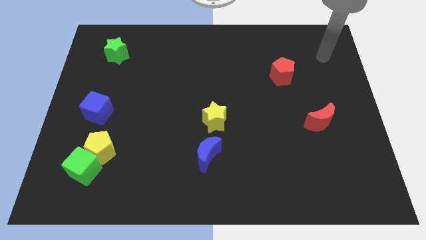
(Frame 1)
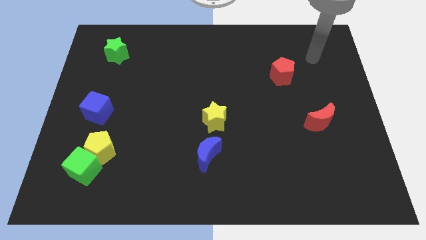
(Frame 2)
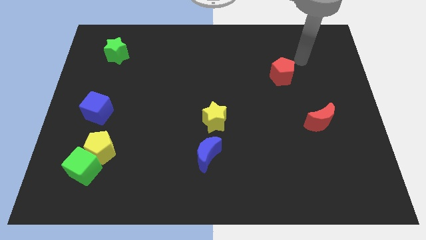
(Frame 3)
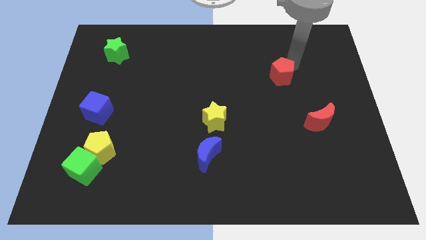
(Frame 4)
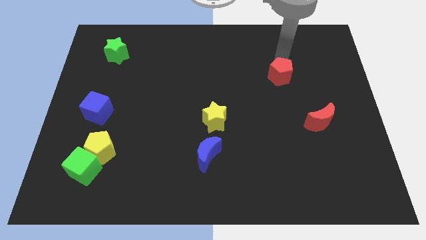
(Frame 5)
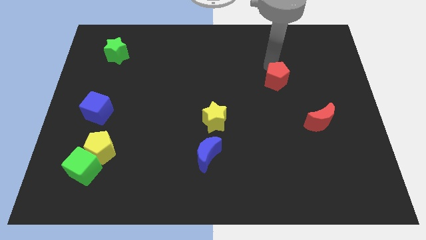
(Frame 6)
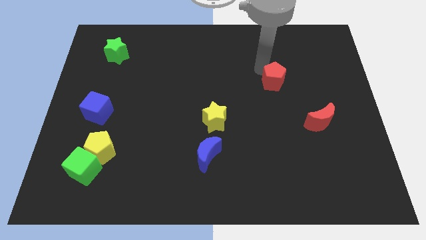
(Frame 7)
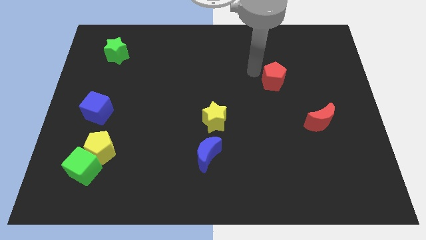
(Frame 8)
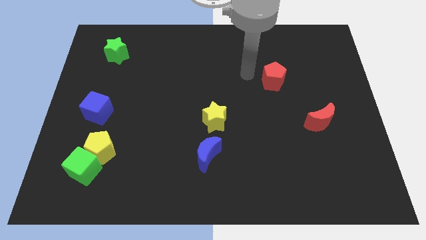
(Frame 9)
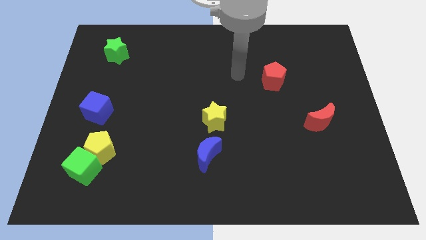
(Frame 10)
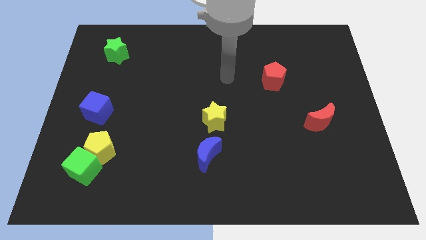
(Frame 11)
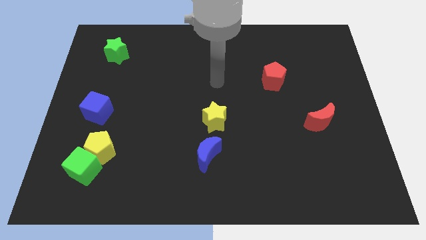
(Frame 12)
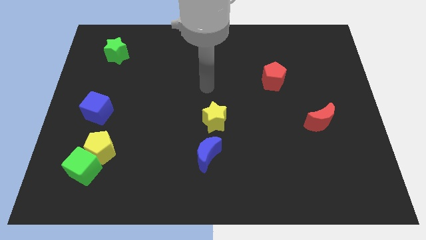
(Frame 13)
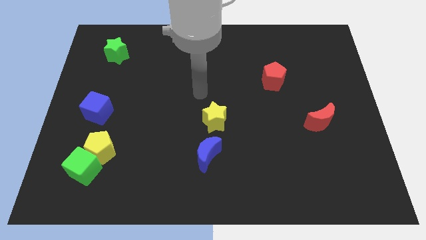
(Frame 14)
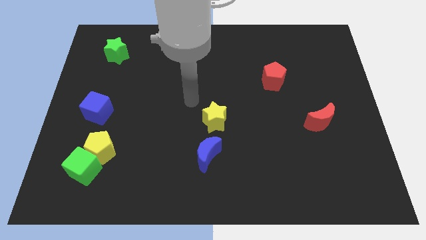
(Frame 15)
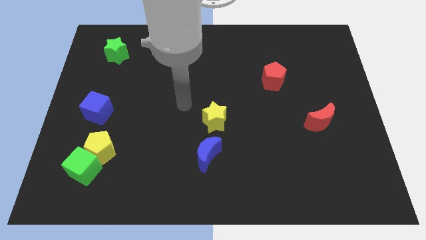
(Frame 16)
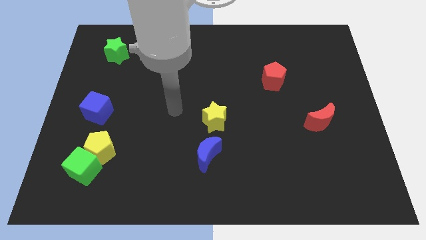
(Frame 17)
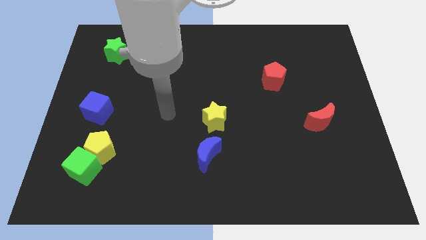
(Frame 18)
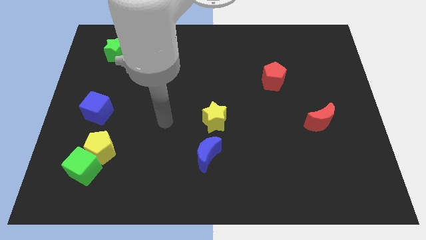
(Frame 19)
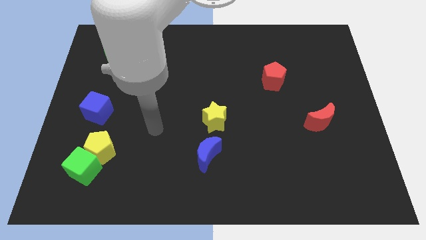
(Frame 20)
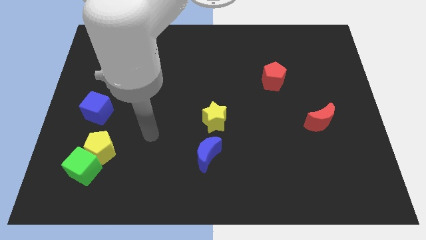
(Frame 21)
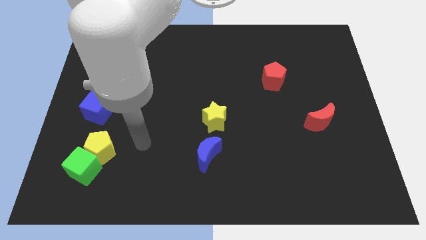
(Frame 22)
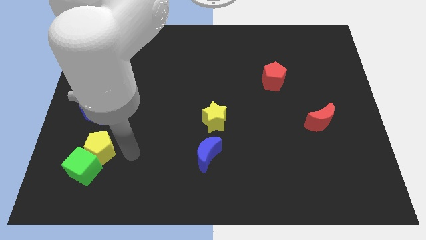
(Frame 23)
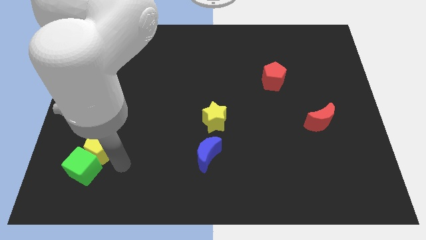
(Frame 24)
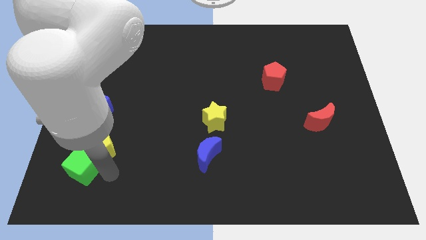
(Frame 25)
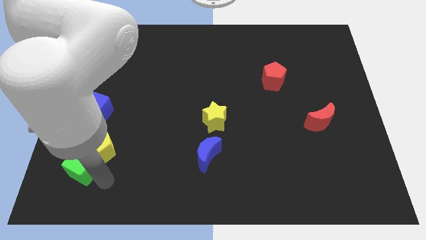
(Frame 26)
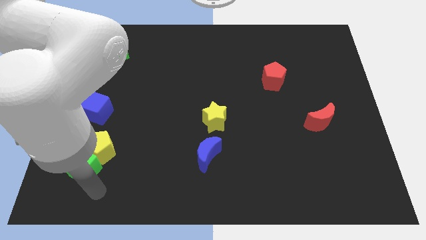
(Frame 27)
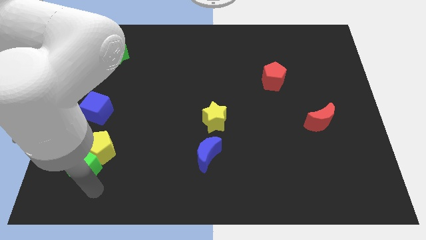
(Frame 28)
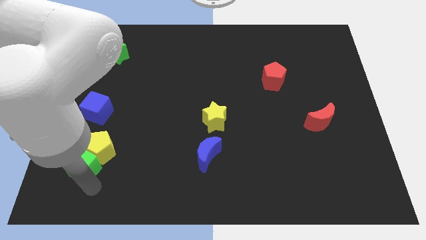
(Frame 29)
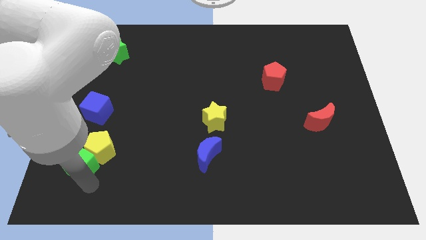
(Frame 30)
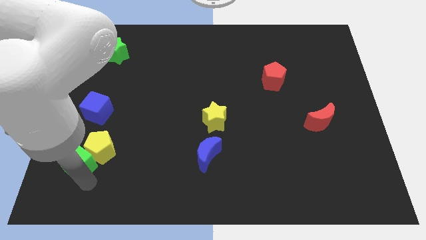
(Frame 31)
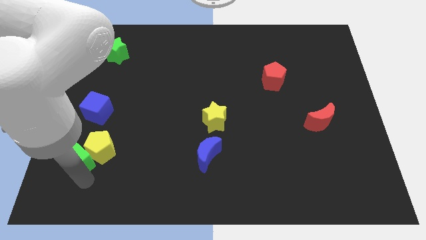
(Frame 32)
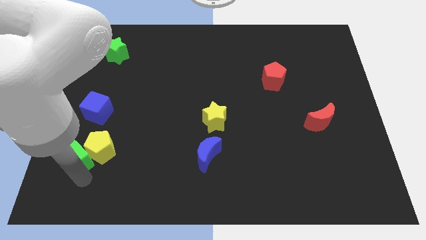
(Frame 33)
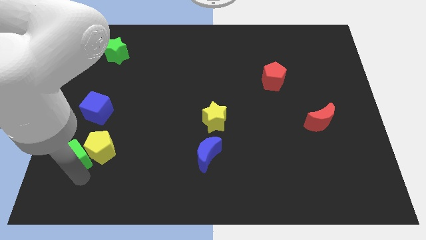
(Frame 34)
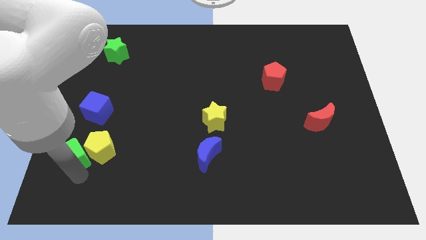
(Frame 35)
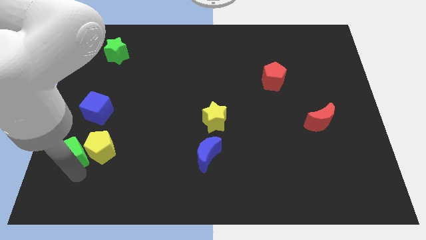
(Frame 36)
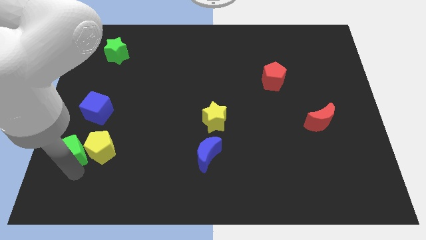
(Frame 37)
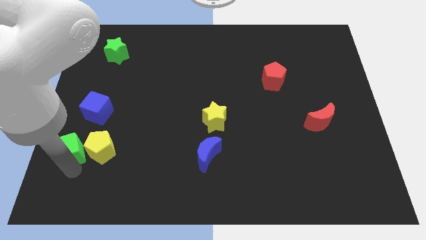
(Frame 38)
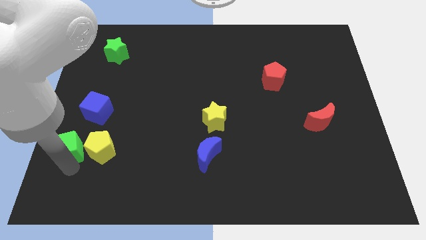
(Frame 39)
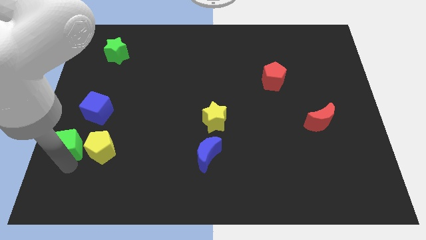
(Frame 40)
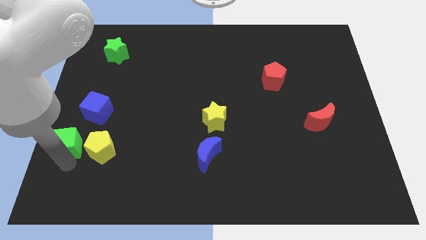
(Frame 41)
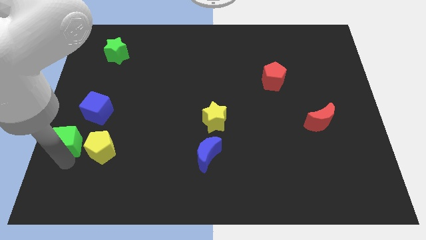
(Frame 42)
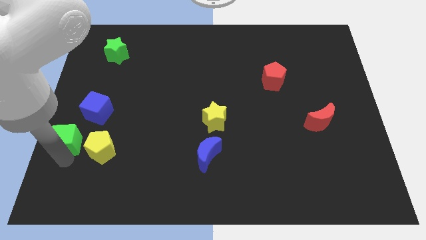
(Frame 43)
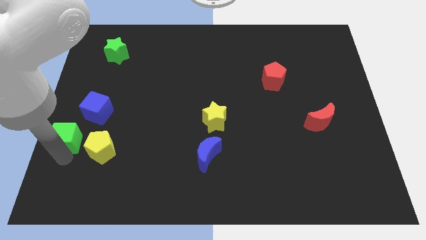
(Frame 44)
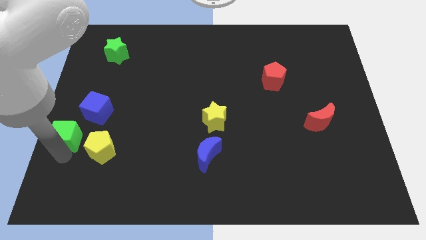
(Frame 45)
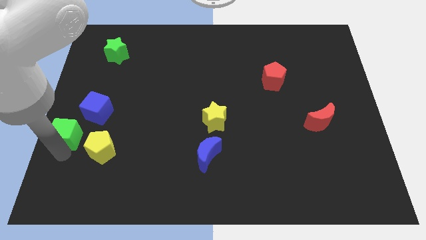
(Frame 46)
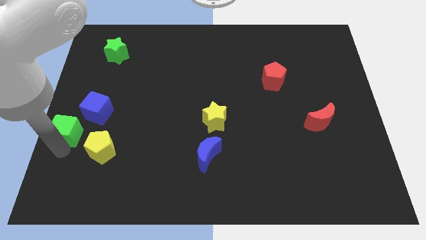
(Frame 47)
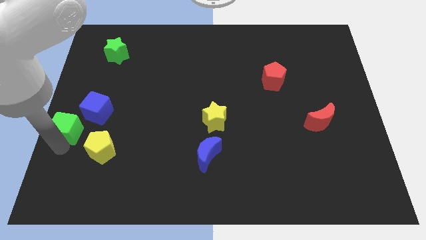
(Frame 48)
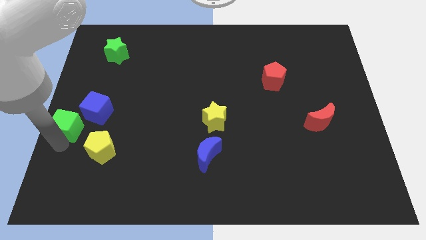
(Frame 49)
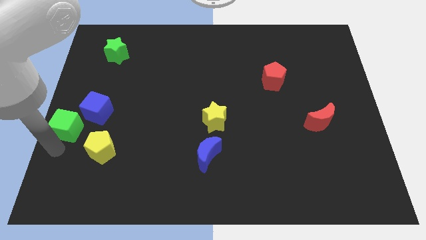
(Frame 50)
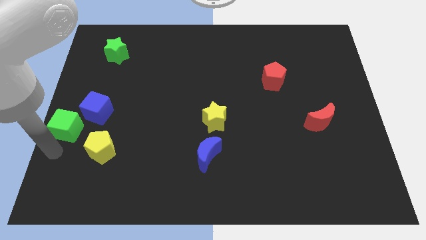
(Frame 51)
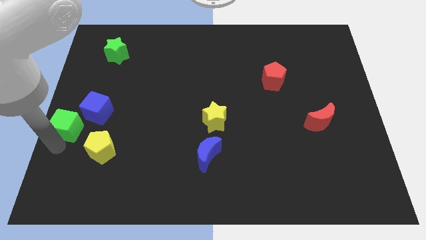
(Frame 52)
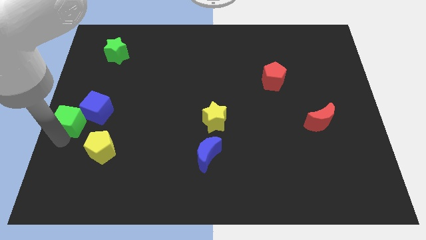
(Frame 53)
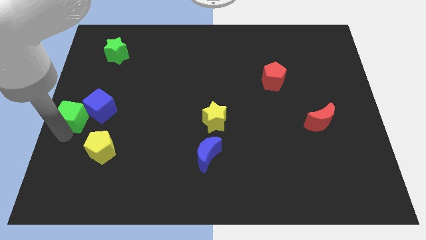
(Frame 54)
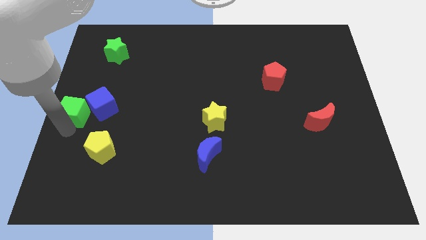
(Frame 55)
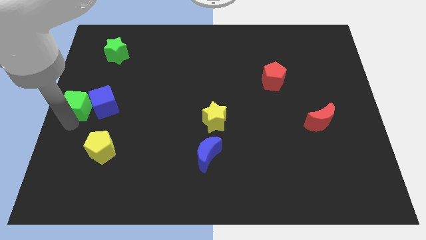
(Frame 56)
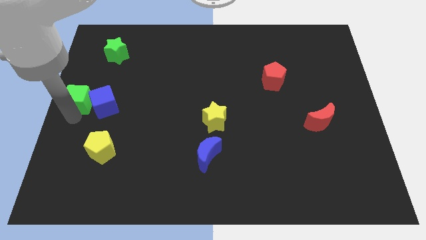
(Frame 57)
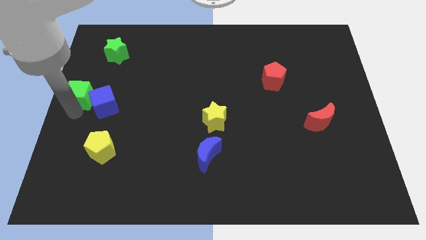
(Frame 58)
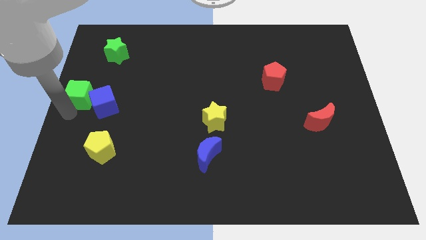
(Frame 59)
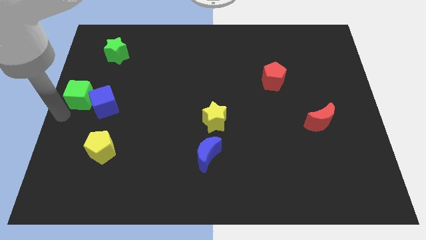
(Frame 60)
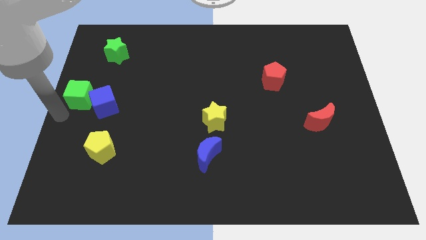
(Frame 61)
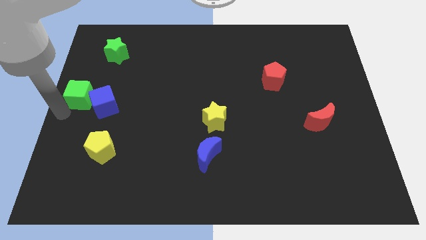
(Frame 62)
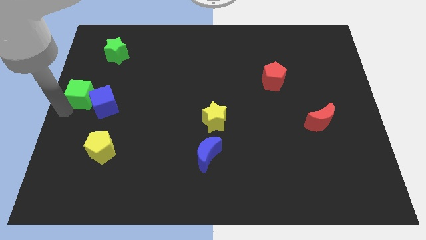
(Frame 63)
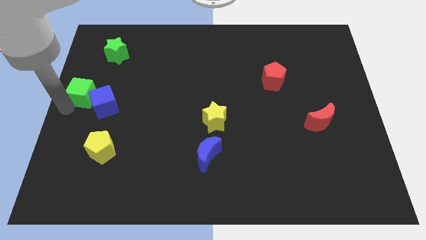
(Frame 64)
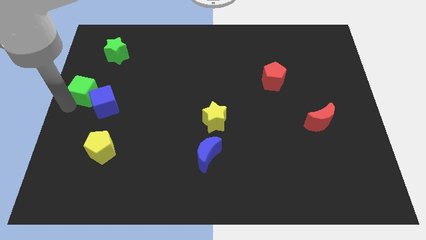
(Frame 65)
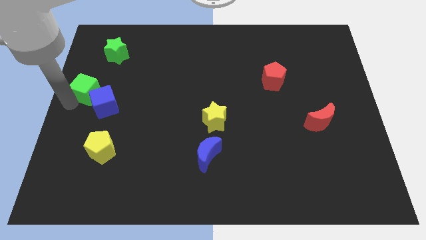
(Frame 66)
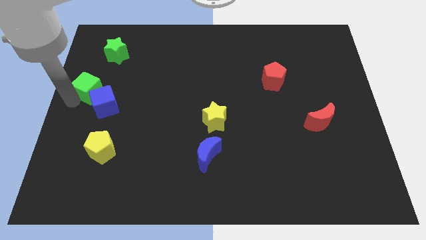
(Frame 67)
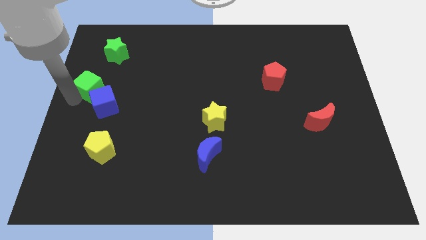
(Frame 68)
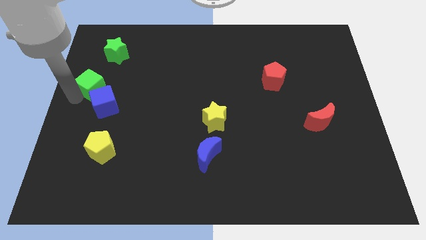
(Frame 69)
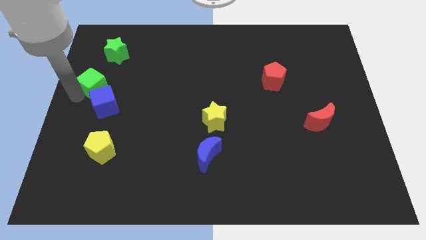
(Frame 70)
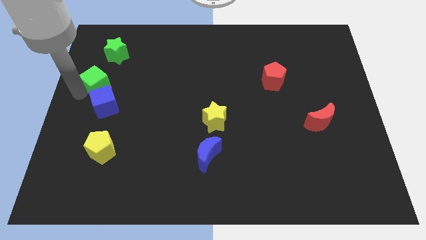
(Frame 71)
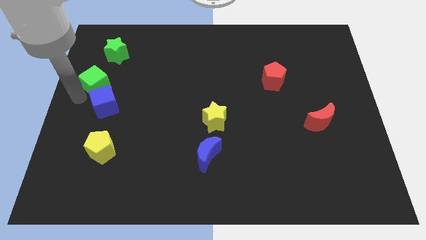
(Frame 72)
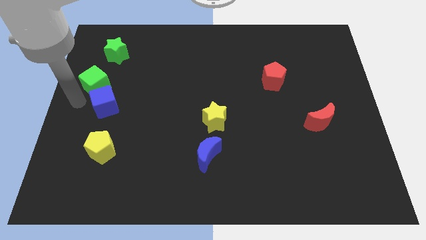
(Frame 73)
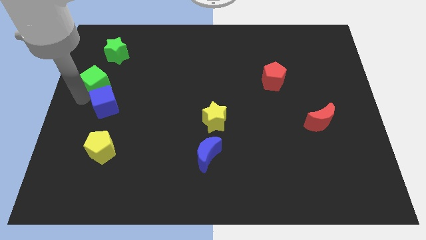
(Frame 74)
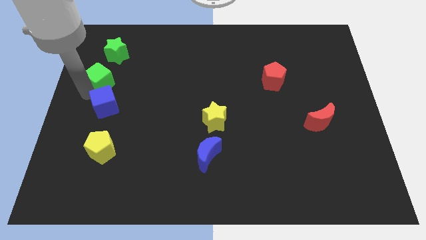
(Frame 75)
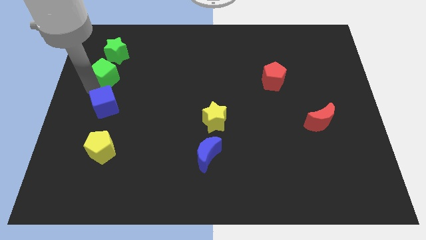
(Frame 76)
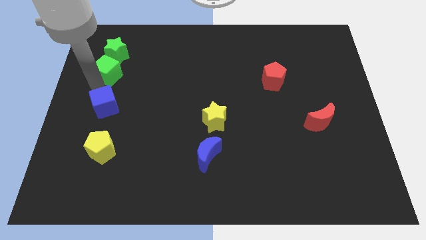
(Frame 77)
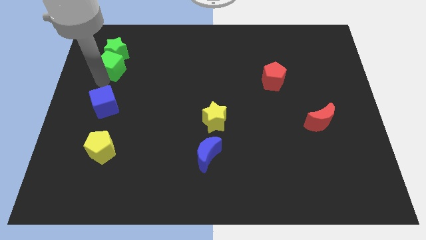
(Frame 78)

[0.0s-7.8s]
move the green cube towards the green star
